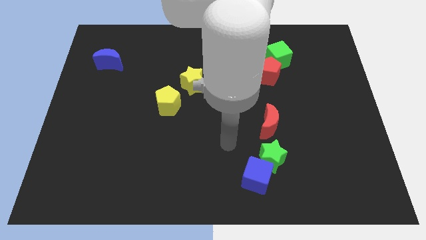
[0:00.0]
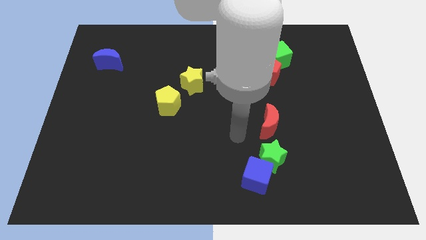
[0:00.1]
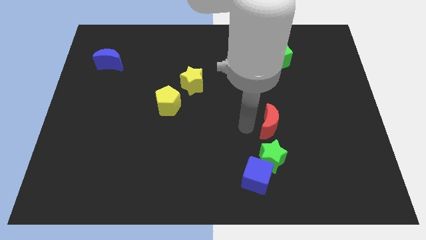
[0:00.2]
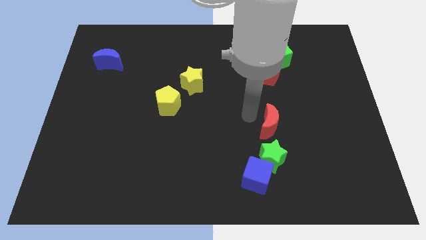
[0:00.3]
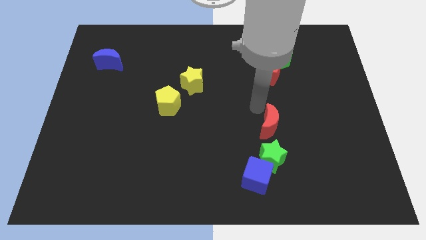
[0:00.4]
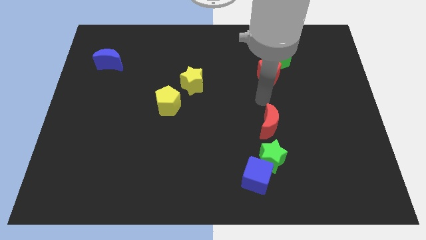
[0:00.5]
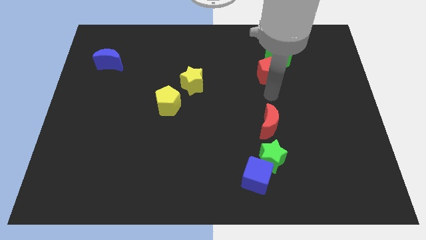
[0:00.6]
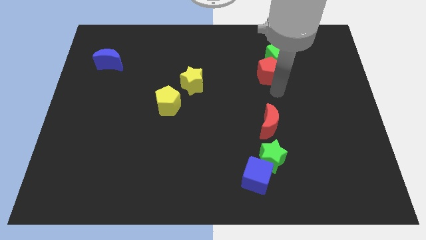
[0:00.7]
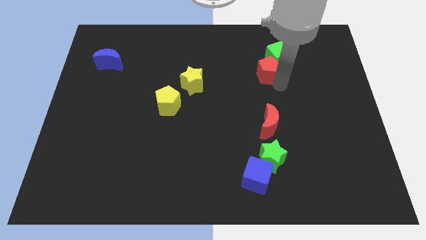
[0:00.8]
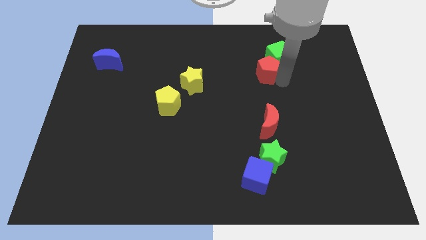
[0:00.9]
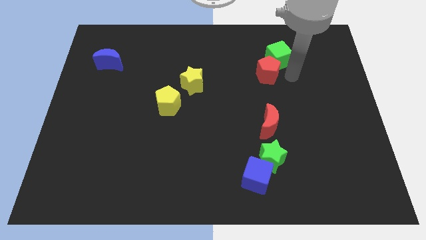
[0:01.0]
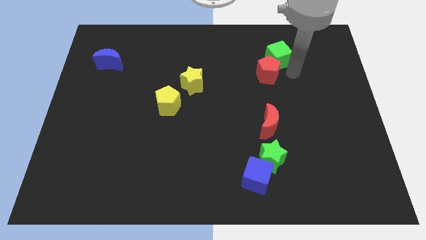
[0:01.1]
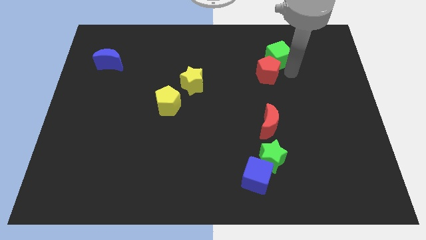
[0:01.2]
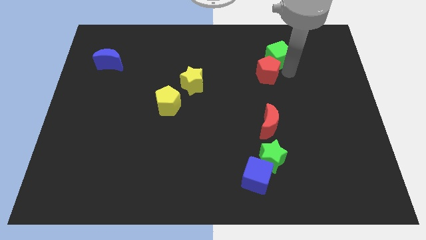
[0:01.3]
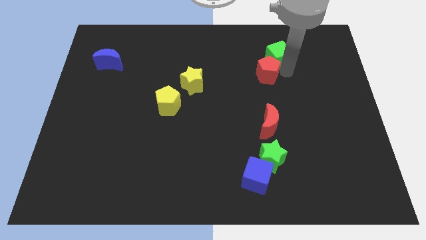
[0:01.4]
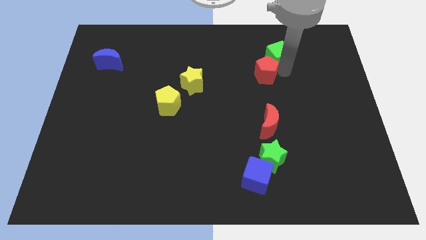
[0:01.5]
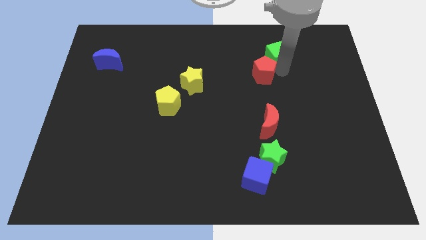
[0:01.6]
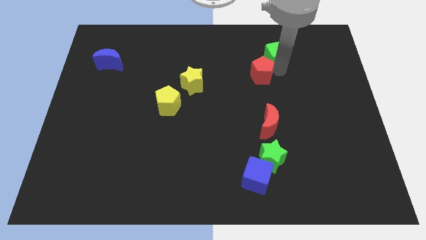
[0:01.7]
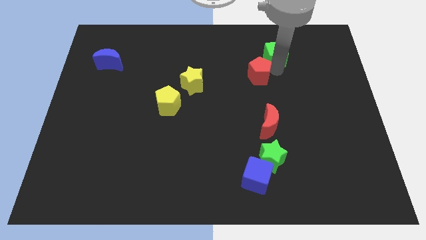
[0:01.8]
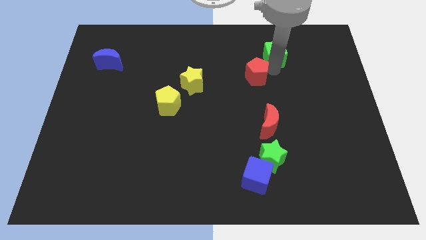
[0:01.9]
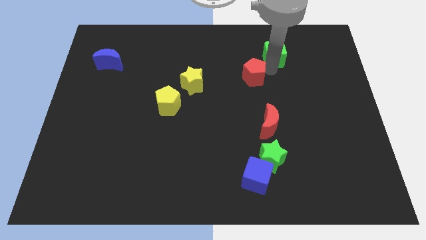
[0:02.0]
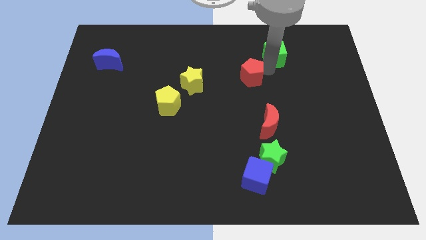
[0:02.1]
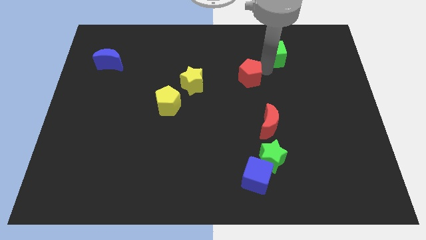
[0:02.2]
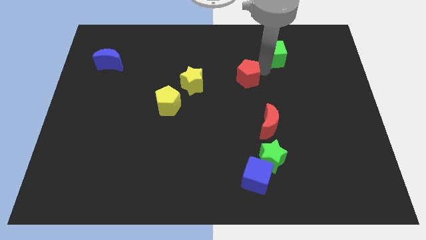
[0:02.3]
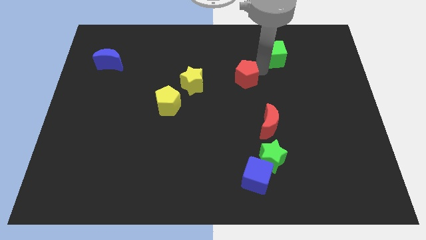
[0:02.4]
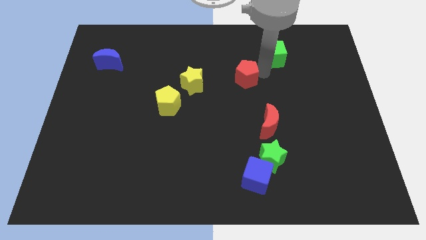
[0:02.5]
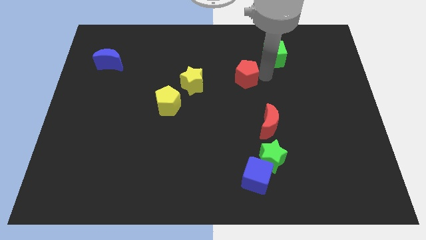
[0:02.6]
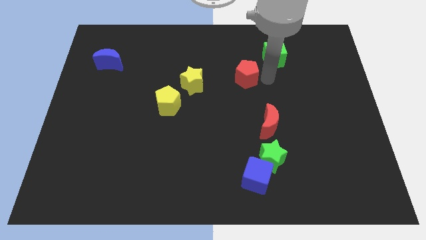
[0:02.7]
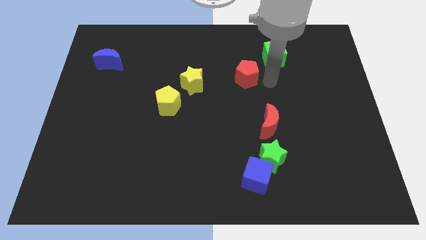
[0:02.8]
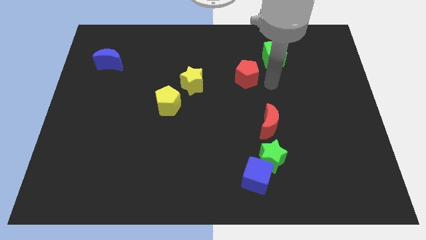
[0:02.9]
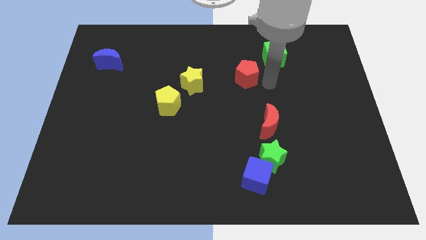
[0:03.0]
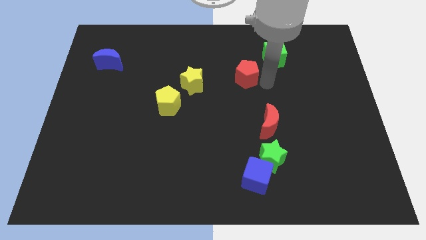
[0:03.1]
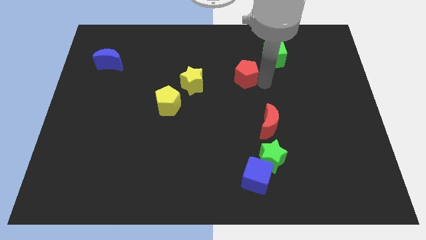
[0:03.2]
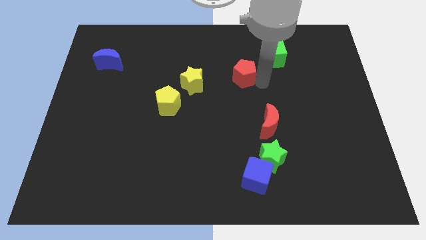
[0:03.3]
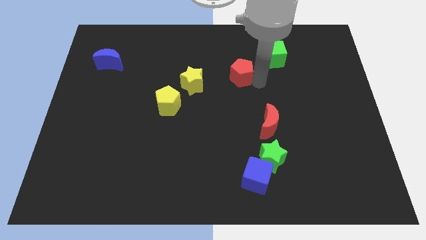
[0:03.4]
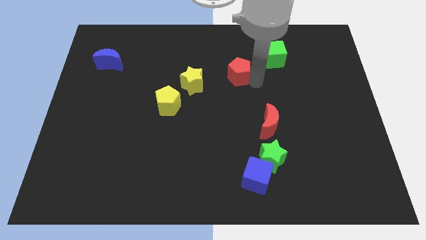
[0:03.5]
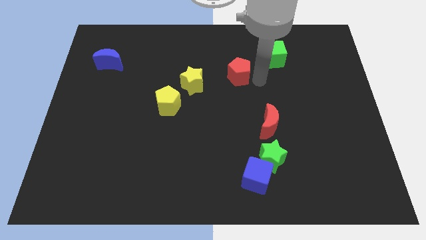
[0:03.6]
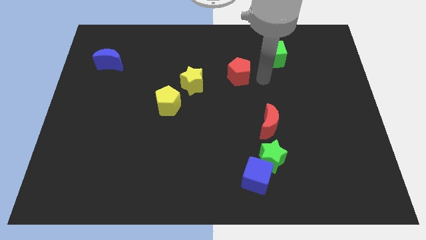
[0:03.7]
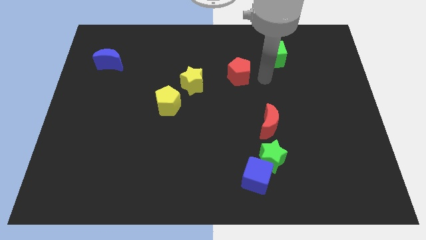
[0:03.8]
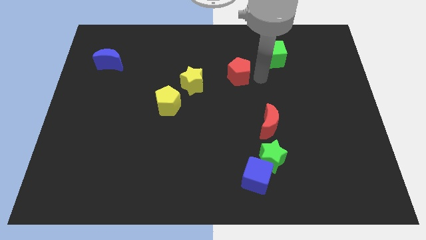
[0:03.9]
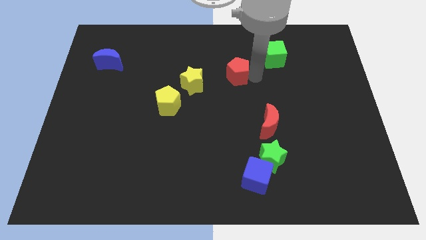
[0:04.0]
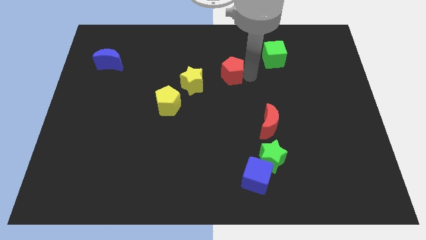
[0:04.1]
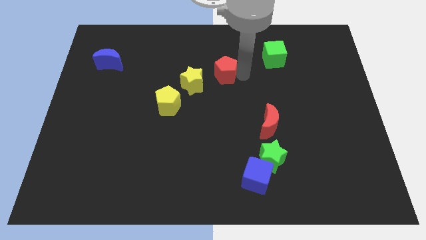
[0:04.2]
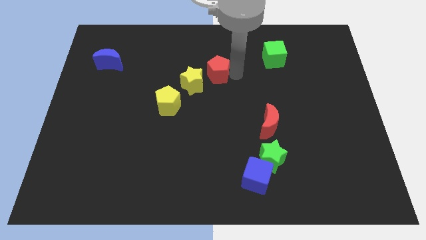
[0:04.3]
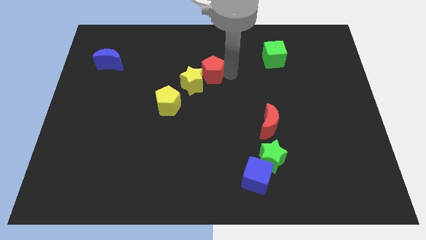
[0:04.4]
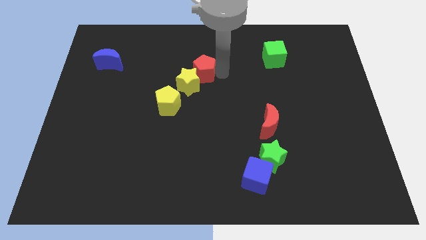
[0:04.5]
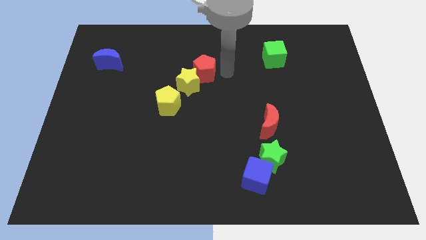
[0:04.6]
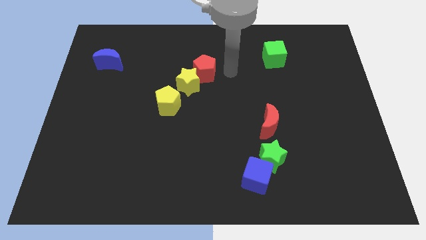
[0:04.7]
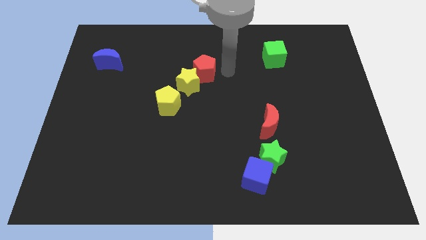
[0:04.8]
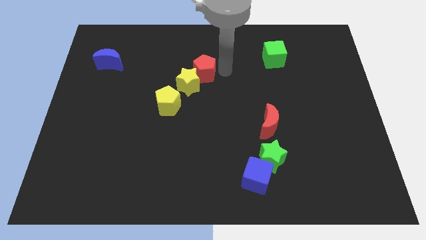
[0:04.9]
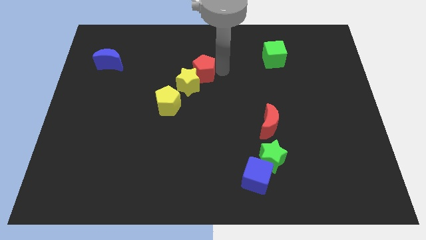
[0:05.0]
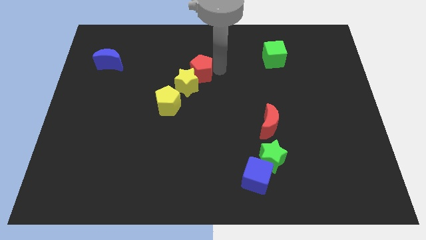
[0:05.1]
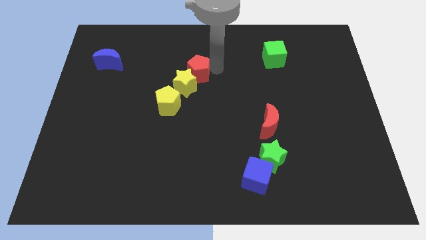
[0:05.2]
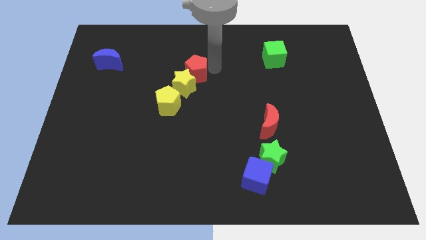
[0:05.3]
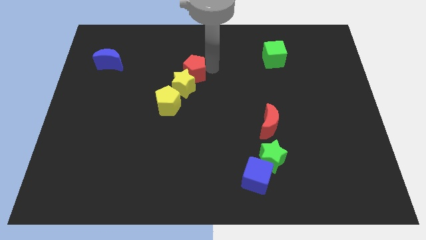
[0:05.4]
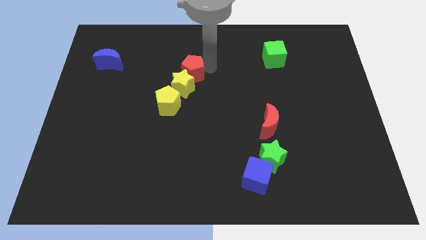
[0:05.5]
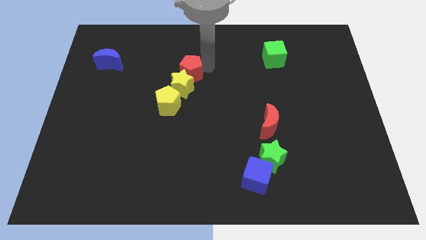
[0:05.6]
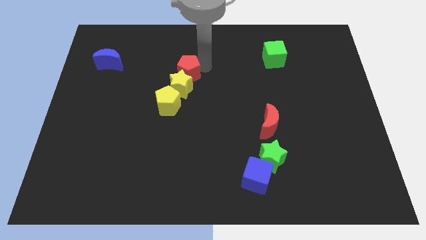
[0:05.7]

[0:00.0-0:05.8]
slide the red pentagon left

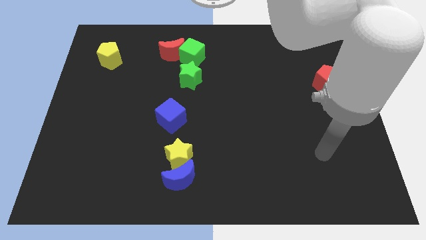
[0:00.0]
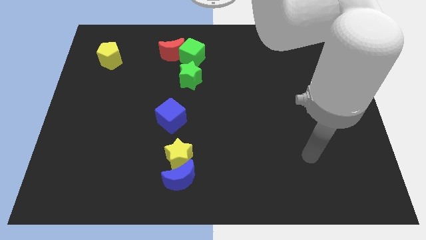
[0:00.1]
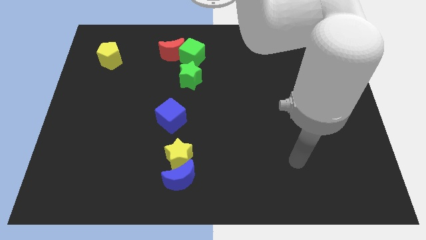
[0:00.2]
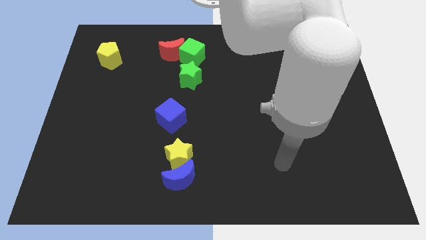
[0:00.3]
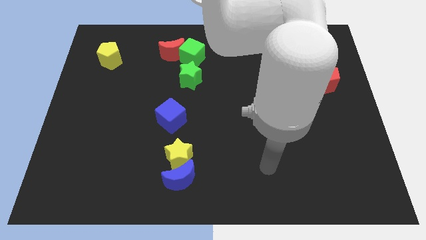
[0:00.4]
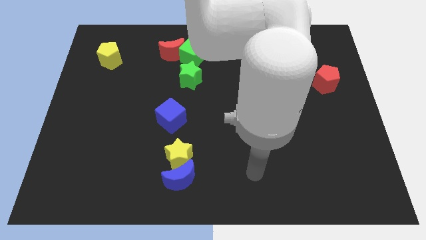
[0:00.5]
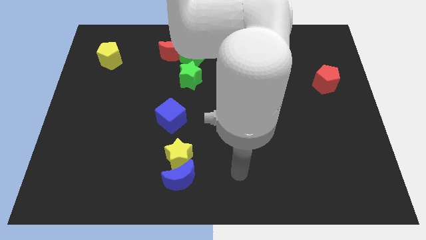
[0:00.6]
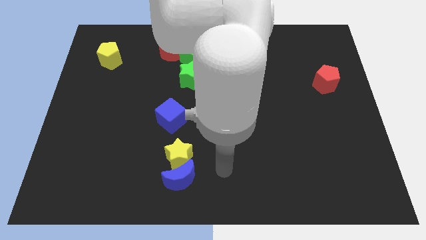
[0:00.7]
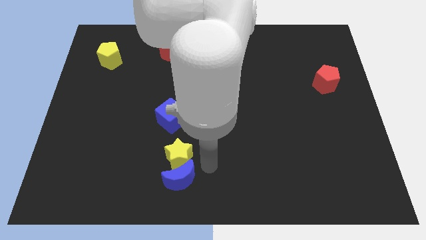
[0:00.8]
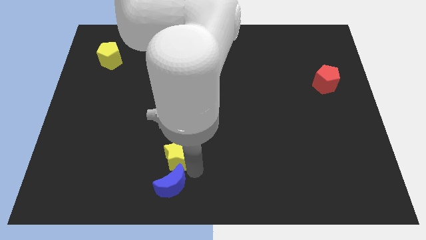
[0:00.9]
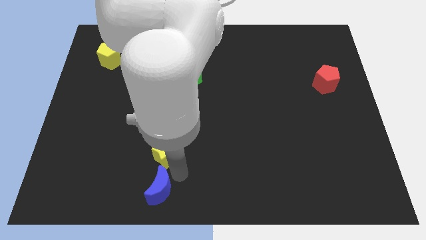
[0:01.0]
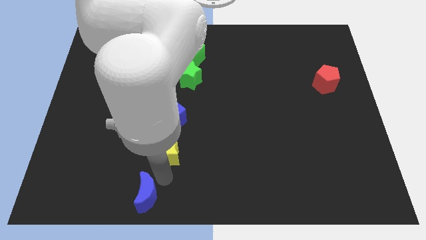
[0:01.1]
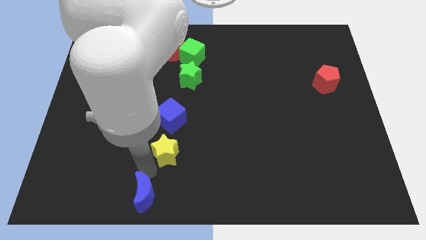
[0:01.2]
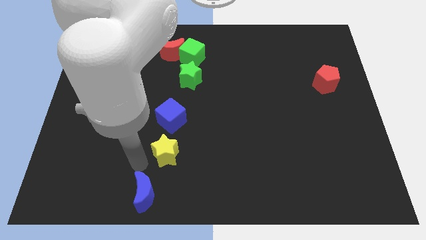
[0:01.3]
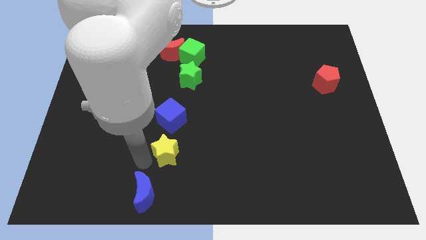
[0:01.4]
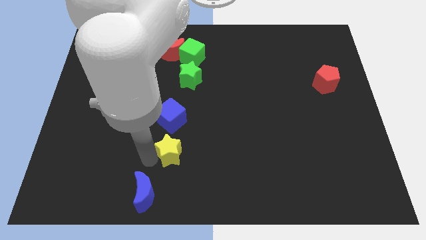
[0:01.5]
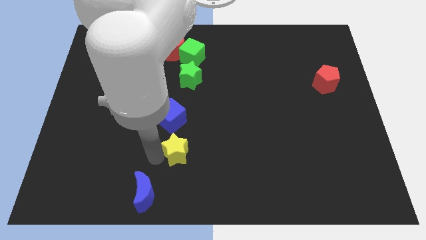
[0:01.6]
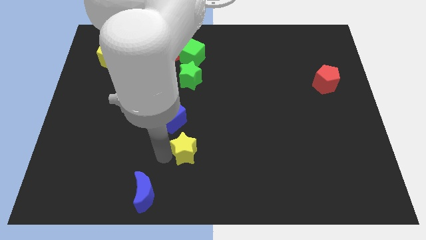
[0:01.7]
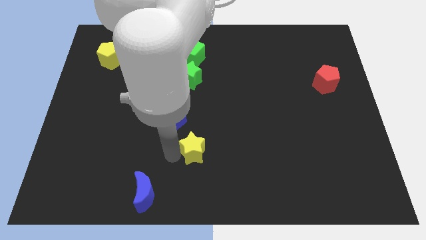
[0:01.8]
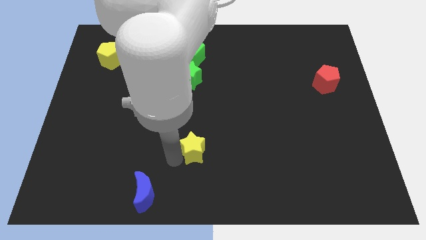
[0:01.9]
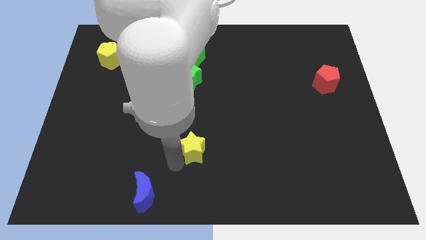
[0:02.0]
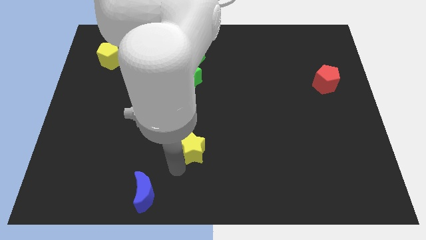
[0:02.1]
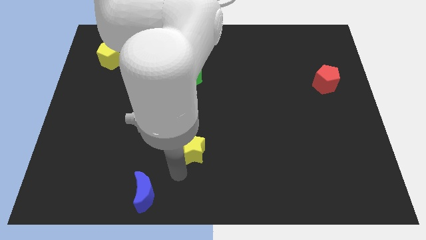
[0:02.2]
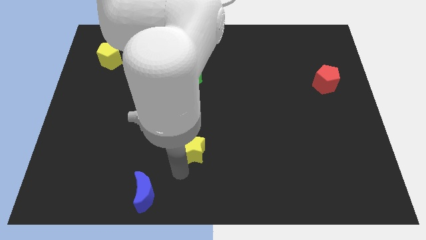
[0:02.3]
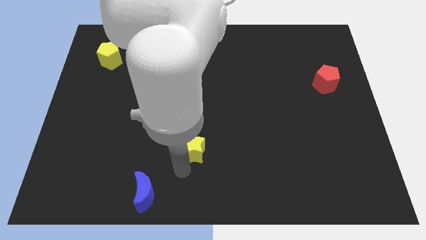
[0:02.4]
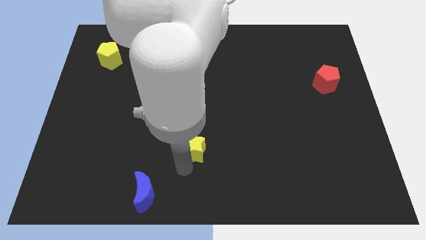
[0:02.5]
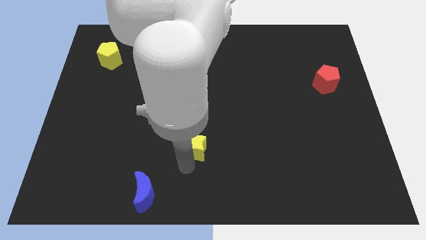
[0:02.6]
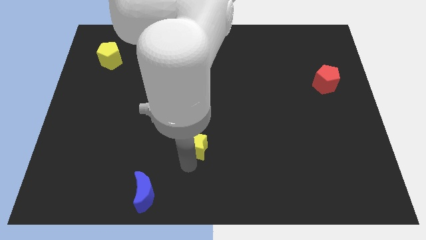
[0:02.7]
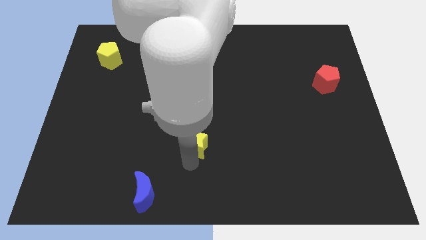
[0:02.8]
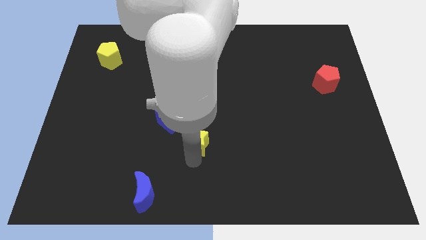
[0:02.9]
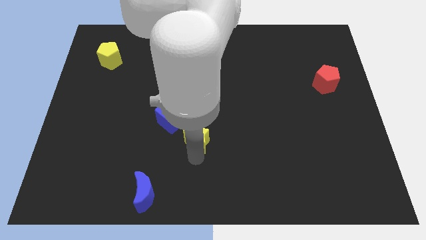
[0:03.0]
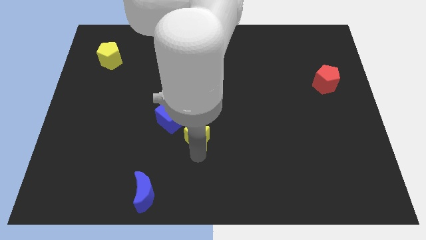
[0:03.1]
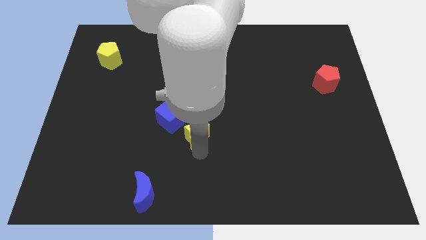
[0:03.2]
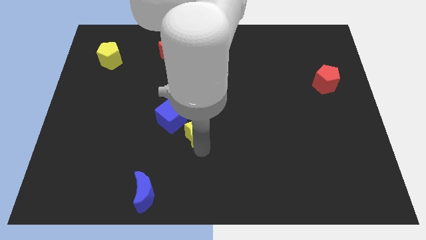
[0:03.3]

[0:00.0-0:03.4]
slightly move the yellow star diagonally up and to the right
